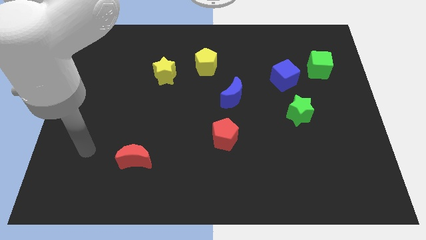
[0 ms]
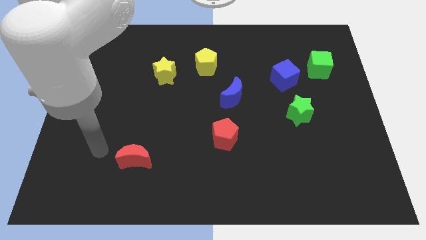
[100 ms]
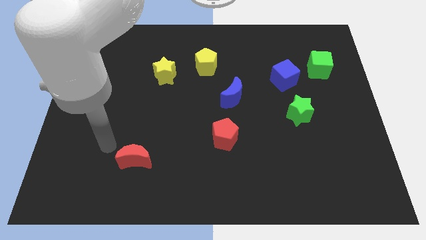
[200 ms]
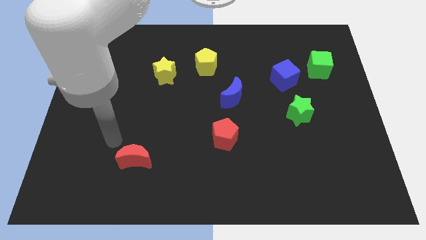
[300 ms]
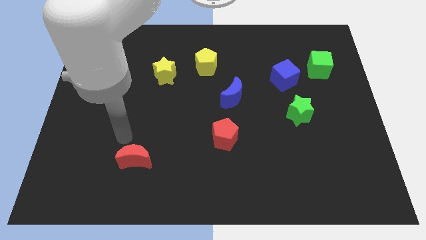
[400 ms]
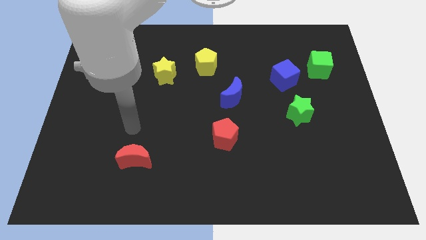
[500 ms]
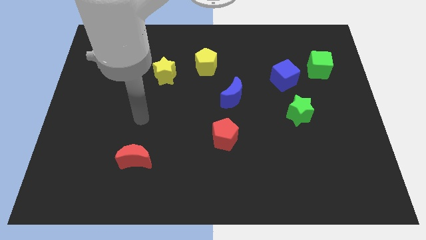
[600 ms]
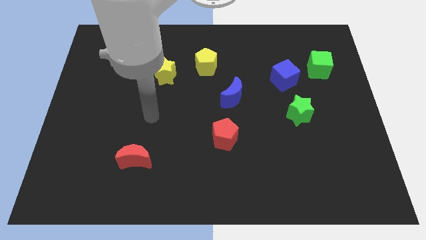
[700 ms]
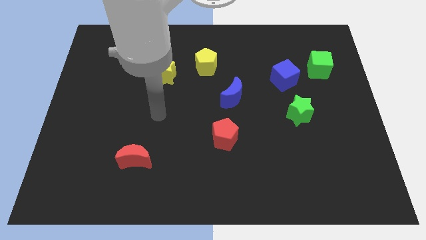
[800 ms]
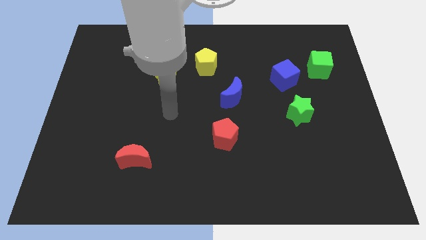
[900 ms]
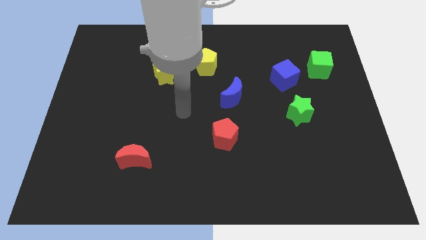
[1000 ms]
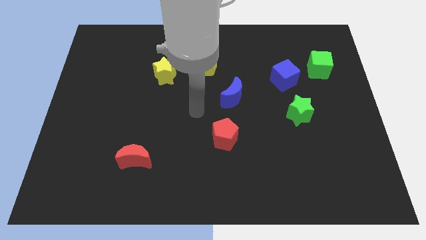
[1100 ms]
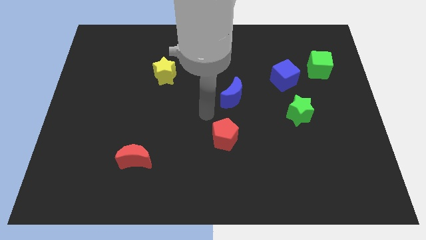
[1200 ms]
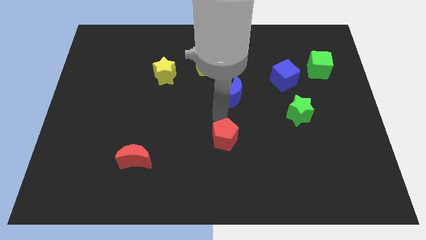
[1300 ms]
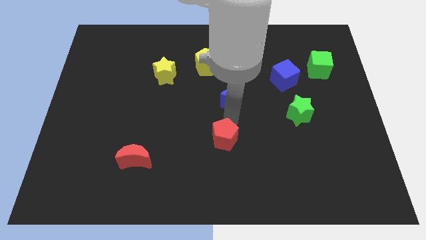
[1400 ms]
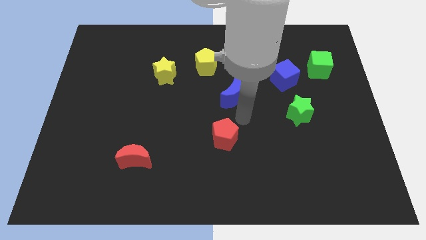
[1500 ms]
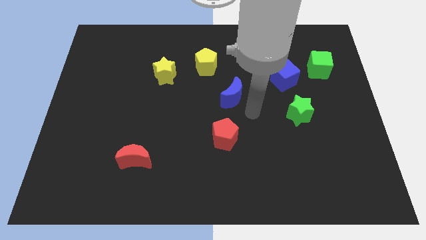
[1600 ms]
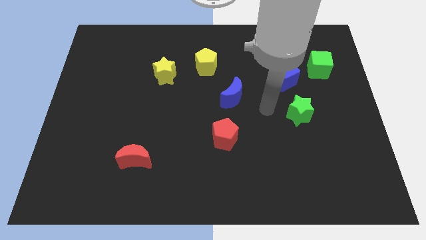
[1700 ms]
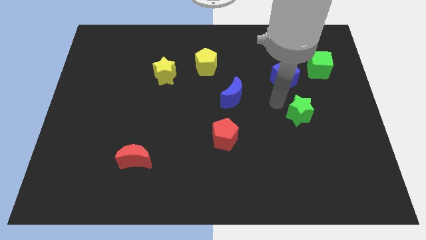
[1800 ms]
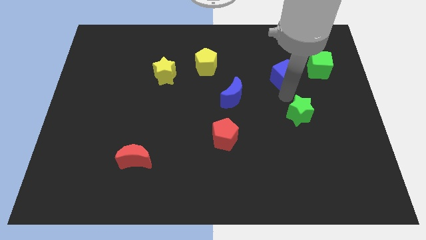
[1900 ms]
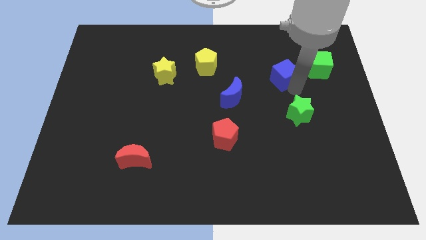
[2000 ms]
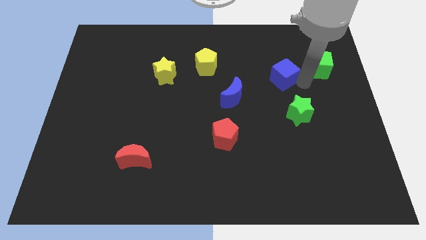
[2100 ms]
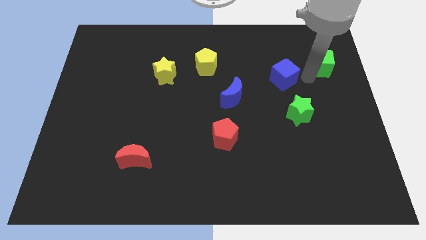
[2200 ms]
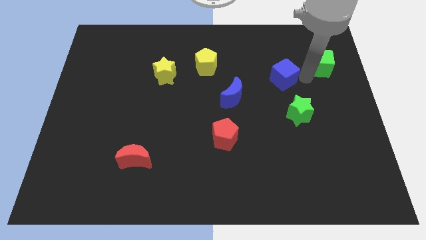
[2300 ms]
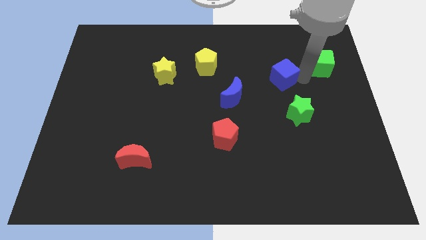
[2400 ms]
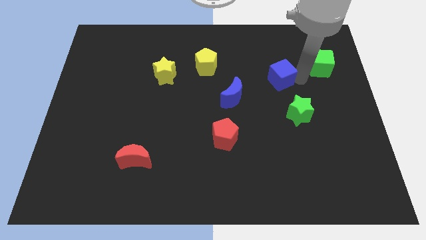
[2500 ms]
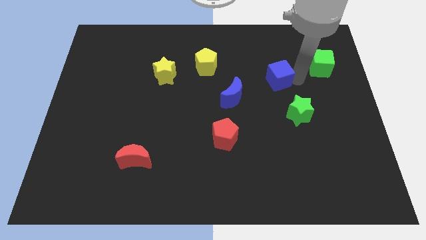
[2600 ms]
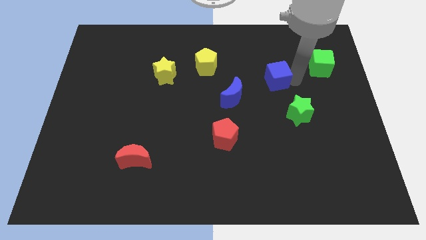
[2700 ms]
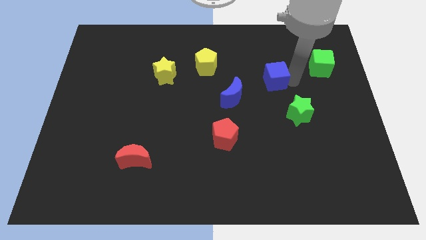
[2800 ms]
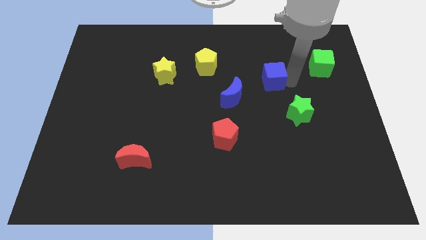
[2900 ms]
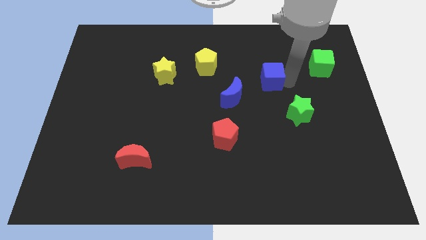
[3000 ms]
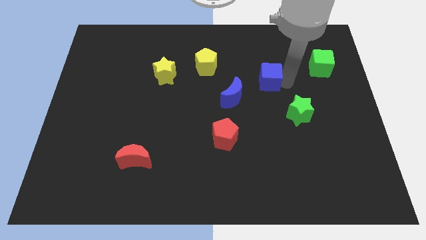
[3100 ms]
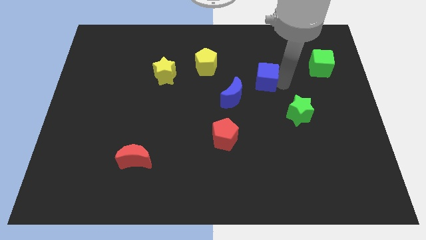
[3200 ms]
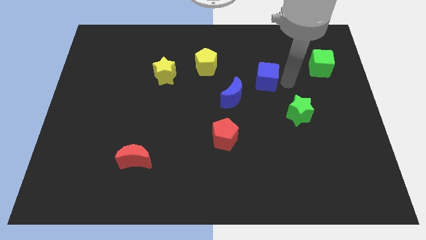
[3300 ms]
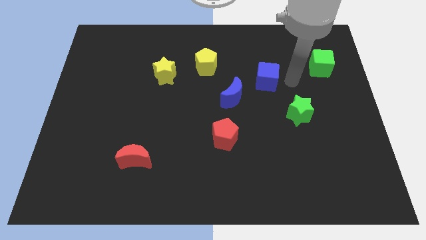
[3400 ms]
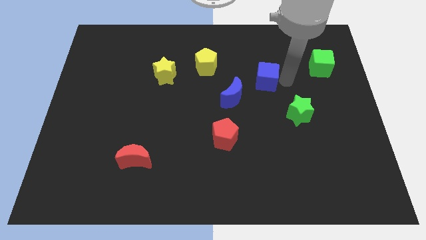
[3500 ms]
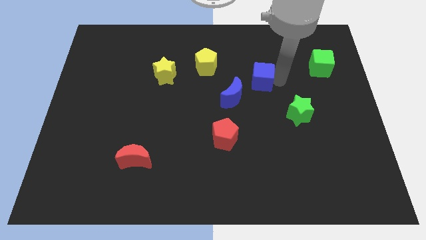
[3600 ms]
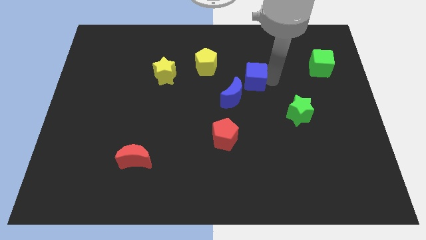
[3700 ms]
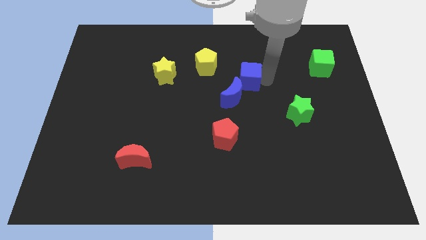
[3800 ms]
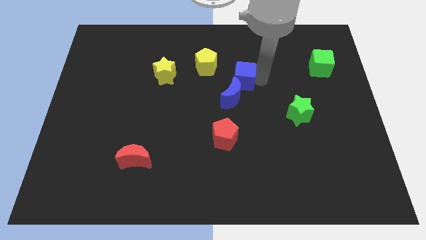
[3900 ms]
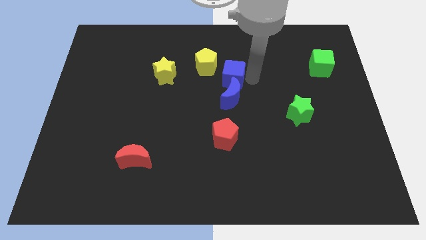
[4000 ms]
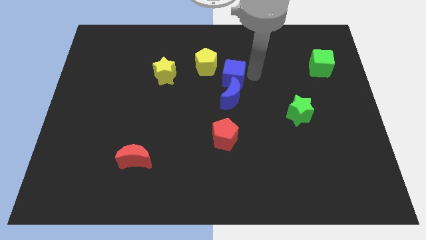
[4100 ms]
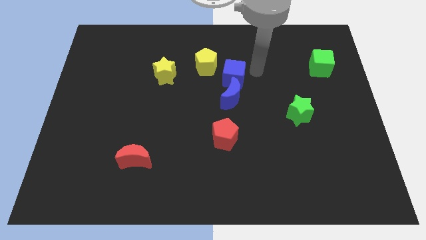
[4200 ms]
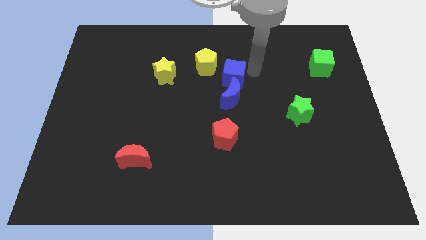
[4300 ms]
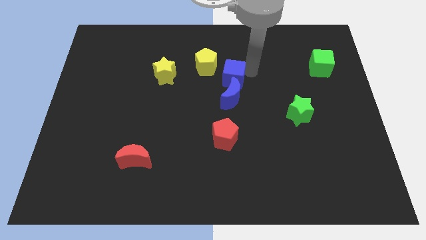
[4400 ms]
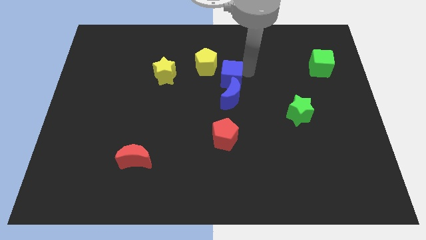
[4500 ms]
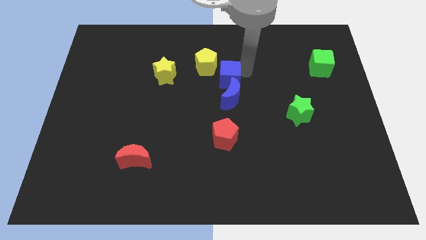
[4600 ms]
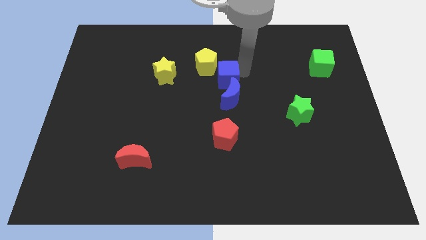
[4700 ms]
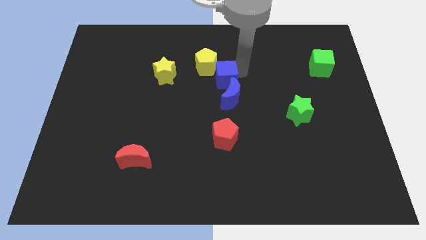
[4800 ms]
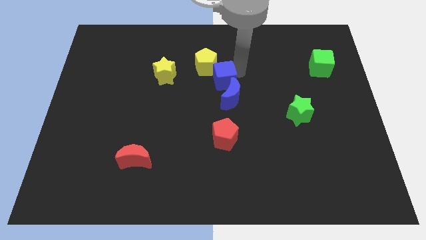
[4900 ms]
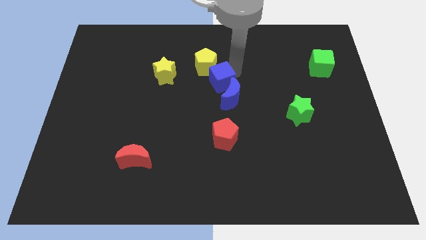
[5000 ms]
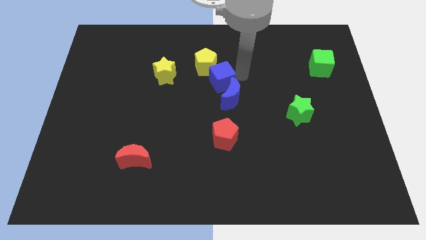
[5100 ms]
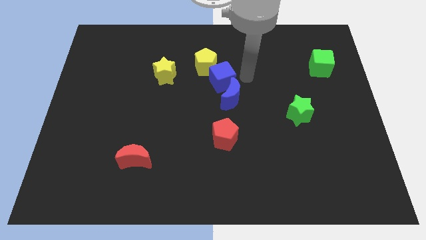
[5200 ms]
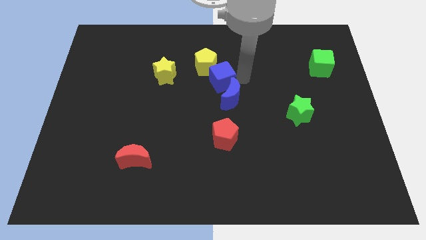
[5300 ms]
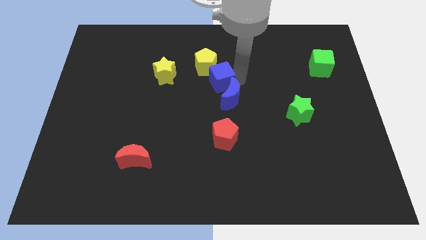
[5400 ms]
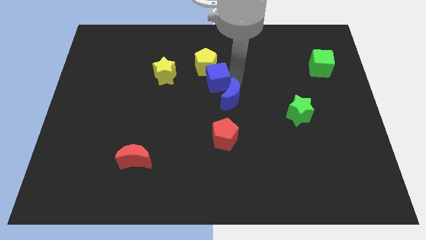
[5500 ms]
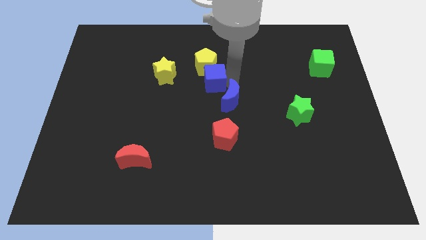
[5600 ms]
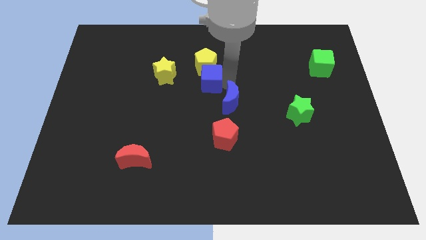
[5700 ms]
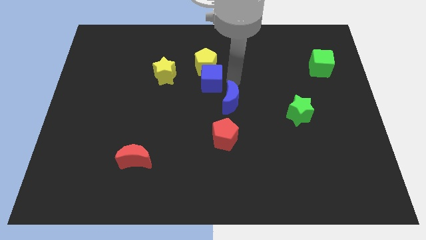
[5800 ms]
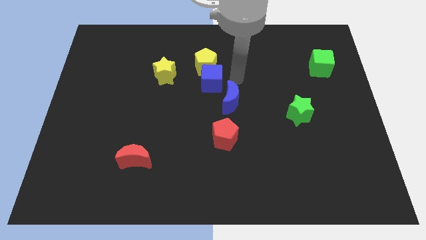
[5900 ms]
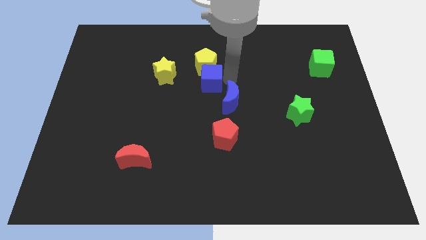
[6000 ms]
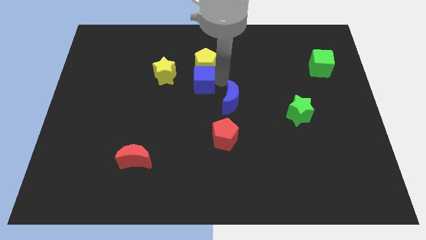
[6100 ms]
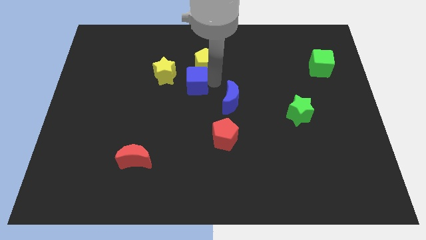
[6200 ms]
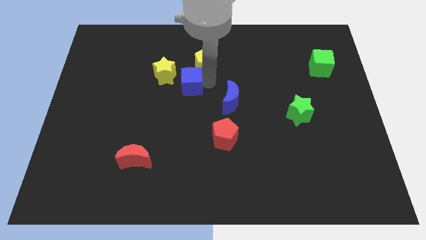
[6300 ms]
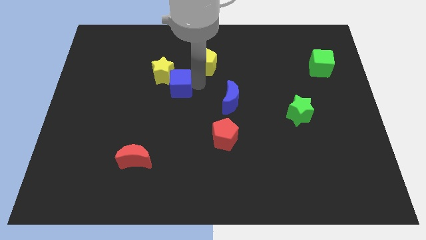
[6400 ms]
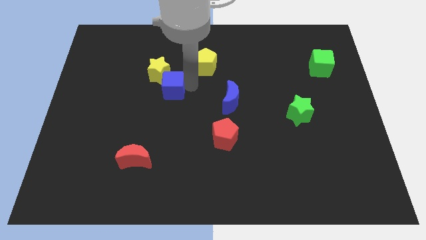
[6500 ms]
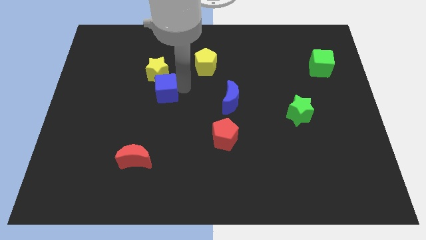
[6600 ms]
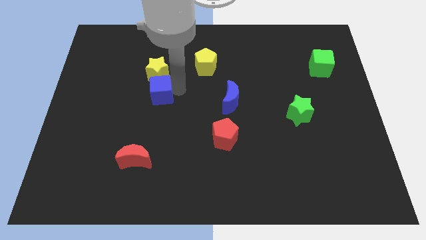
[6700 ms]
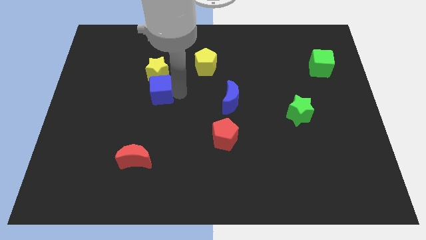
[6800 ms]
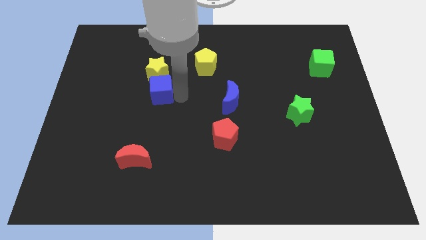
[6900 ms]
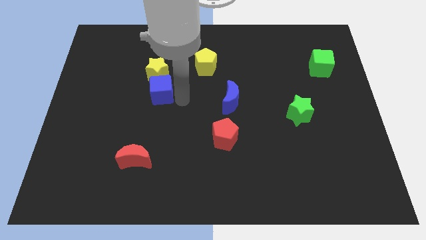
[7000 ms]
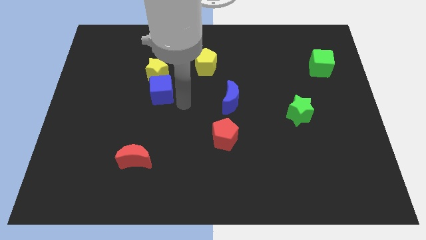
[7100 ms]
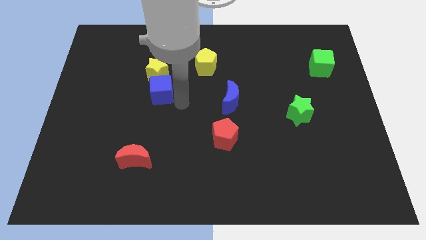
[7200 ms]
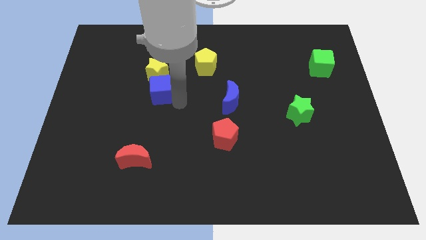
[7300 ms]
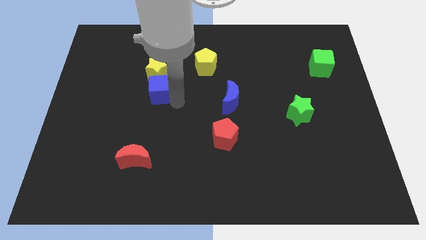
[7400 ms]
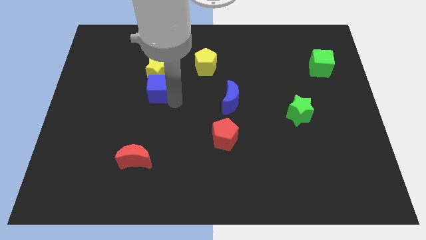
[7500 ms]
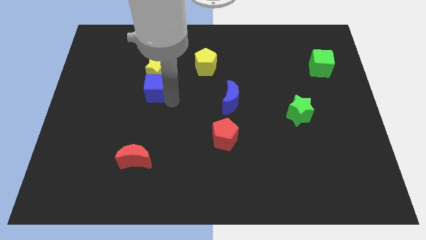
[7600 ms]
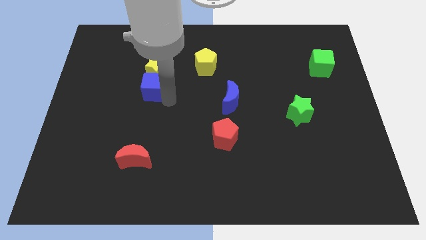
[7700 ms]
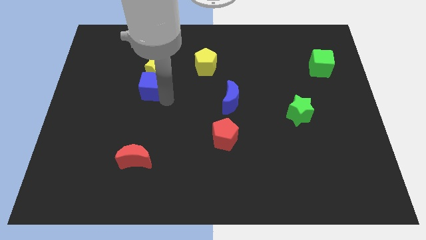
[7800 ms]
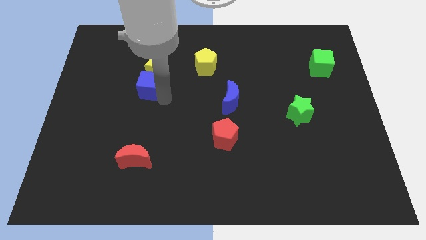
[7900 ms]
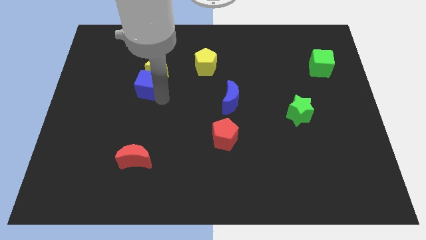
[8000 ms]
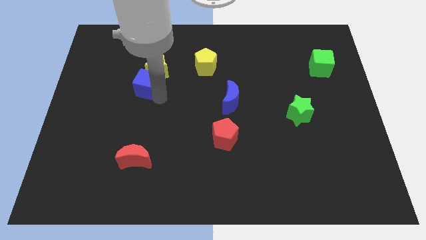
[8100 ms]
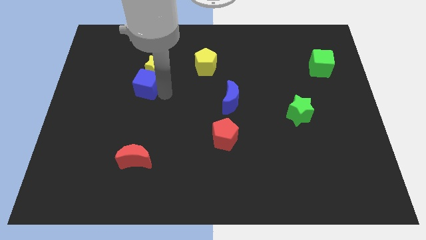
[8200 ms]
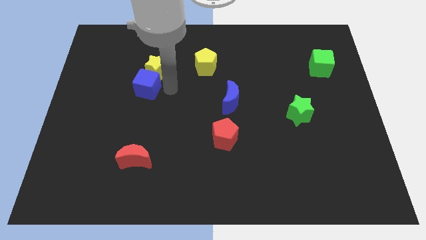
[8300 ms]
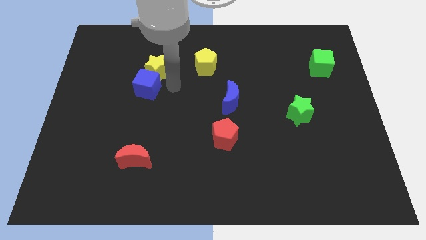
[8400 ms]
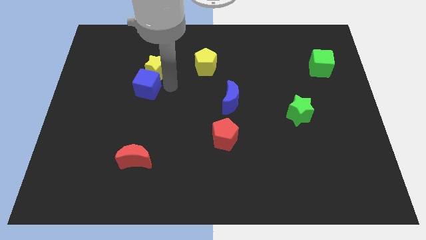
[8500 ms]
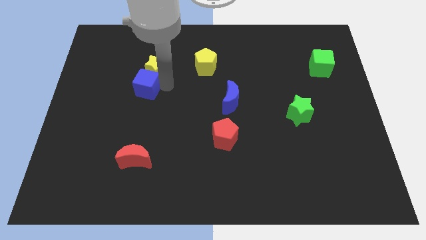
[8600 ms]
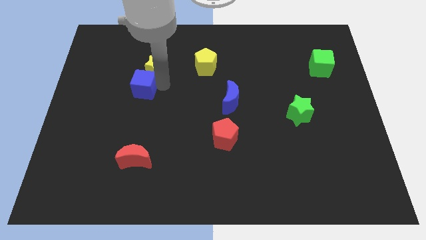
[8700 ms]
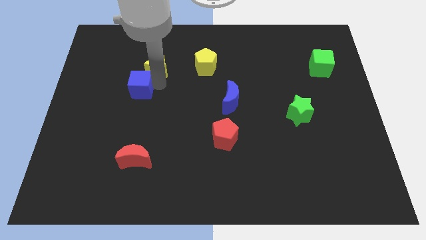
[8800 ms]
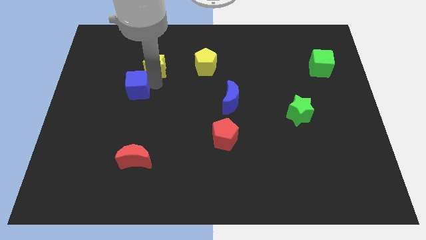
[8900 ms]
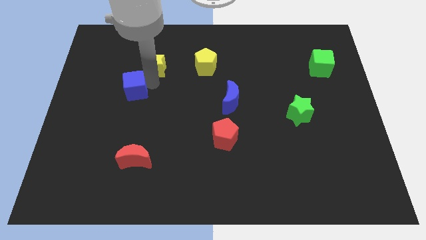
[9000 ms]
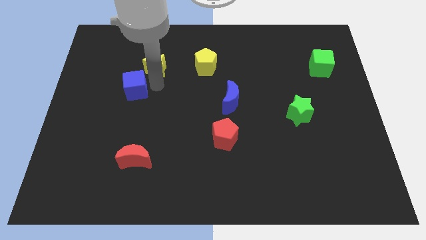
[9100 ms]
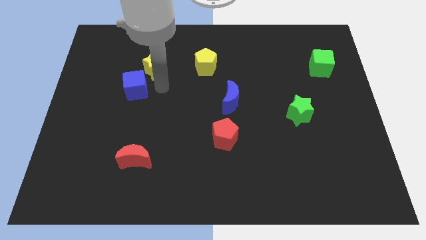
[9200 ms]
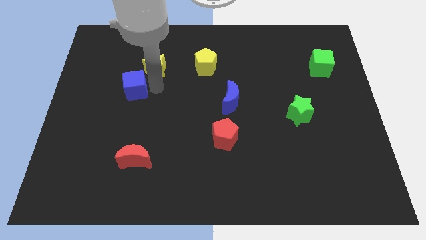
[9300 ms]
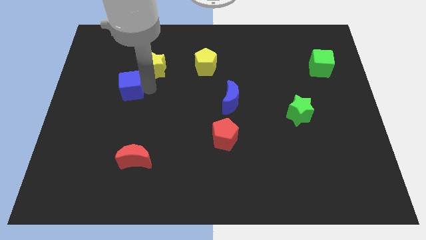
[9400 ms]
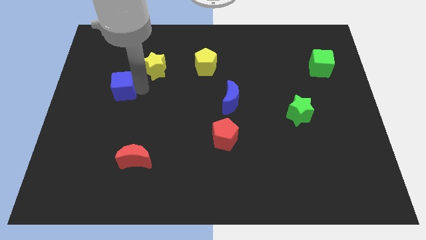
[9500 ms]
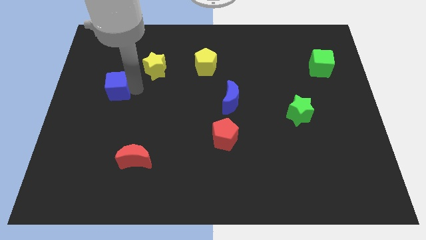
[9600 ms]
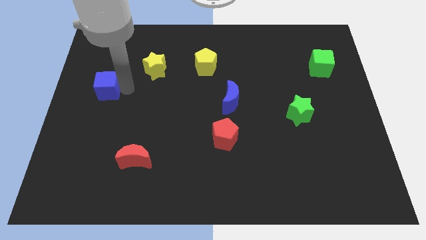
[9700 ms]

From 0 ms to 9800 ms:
push the blue cube to the left side
